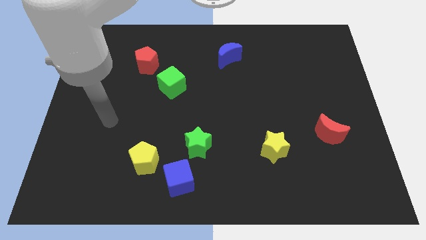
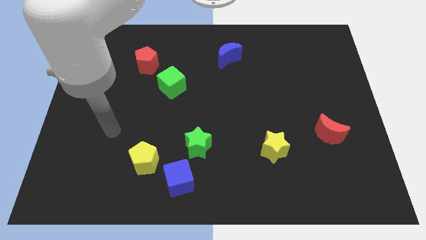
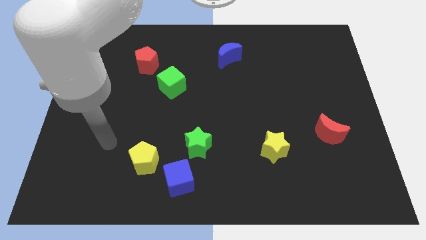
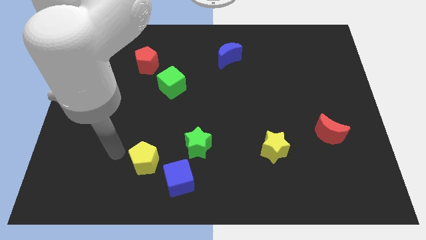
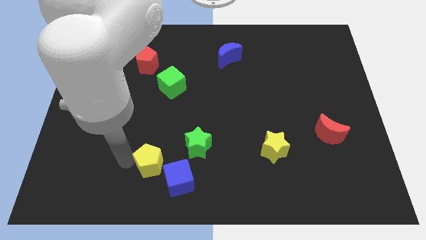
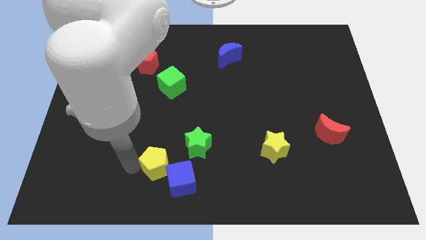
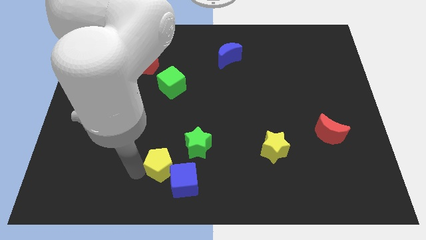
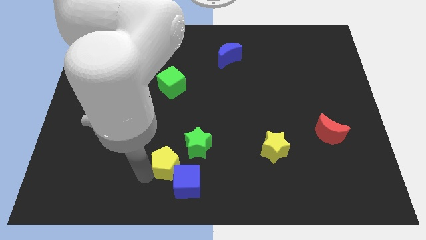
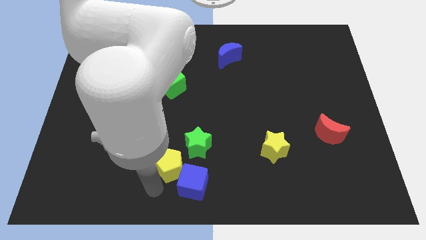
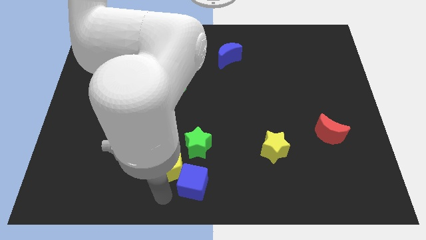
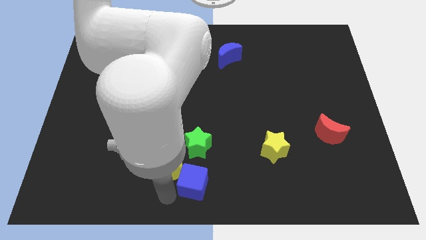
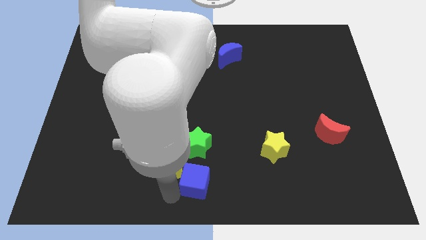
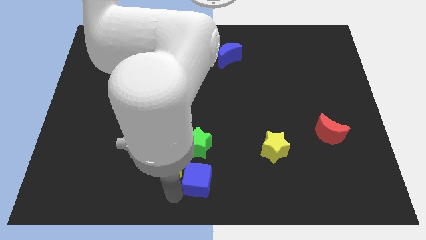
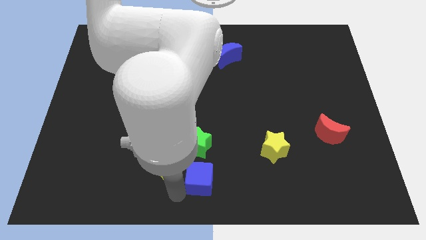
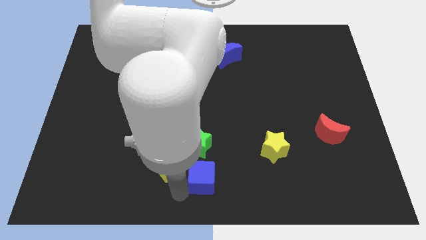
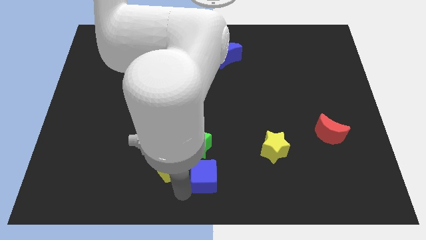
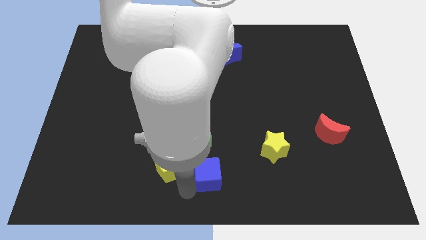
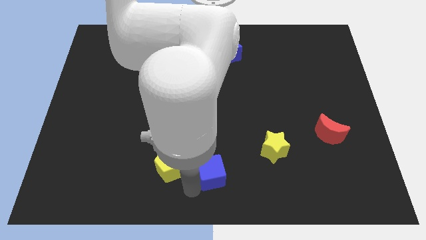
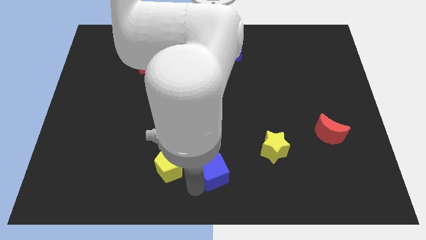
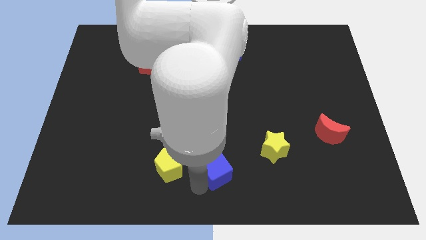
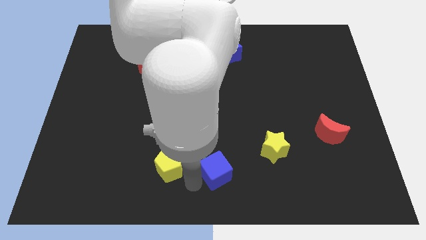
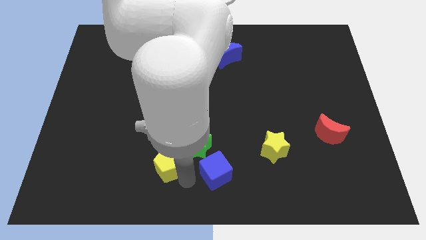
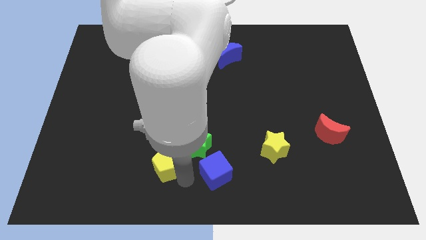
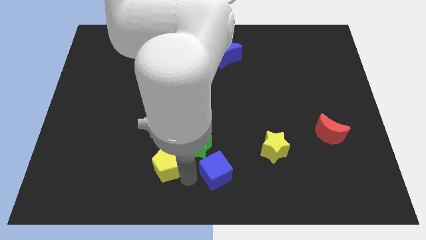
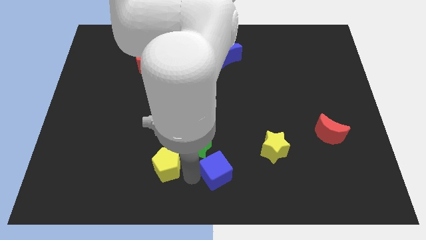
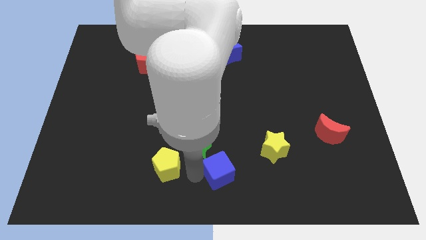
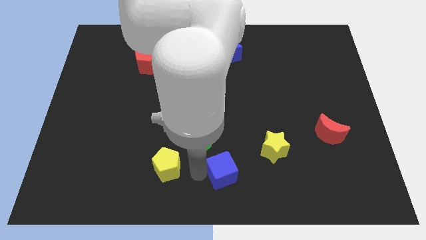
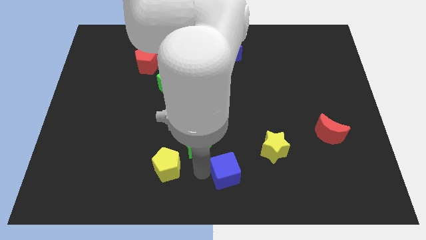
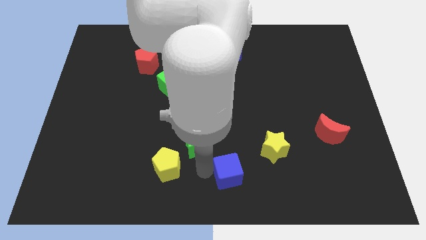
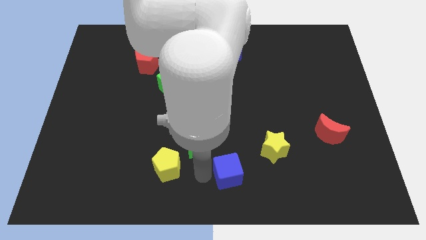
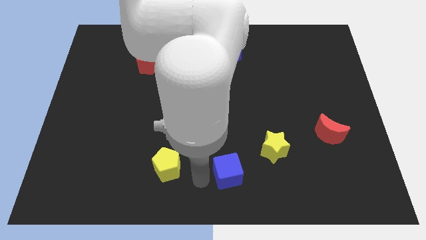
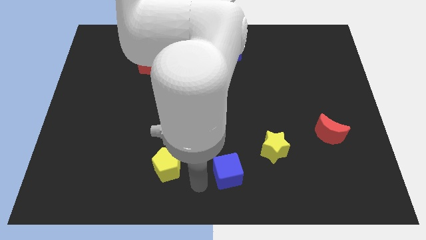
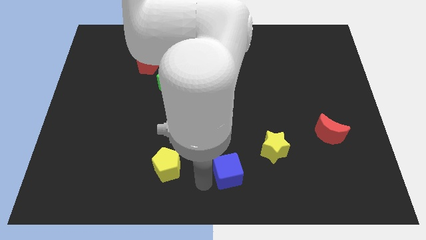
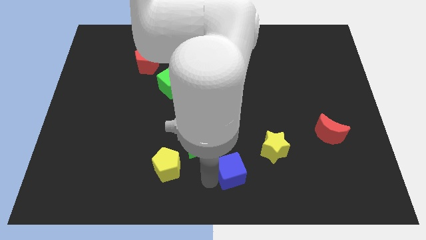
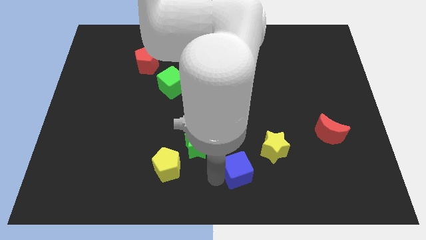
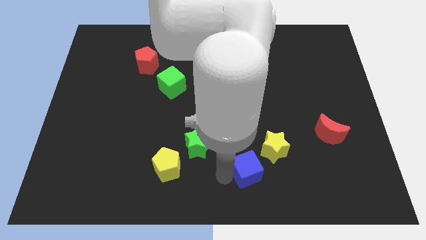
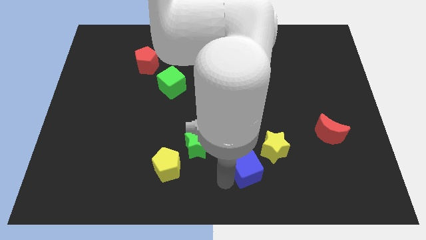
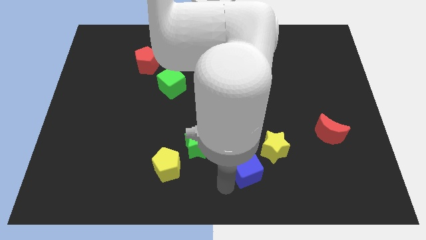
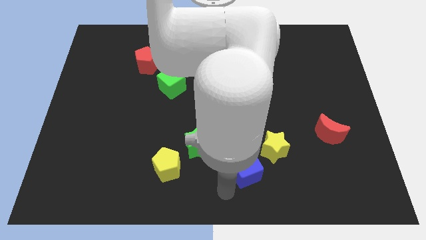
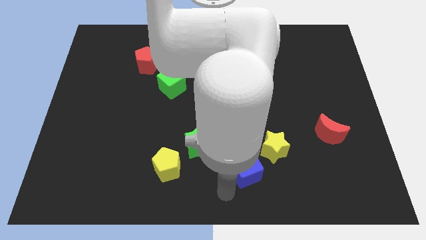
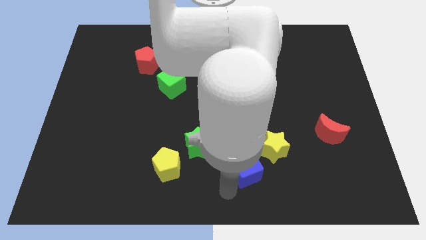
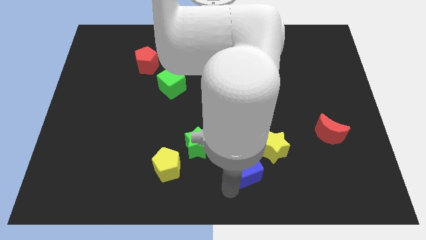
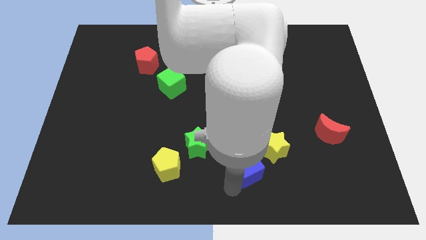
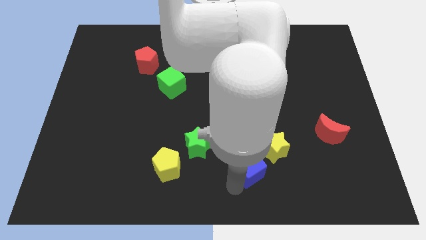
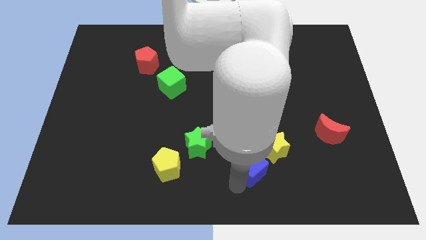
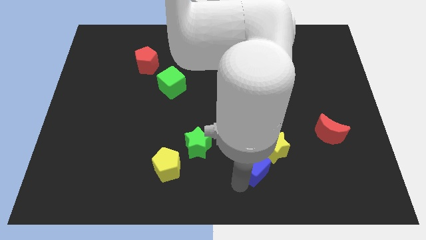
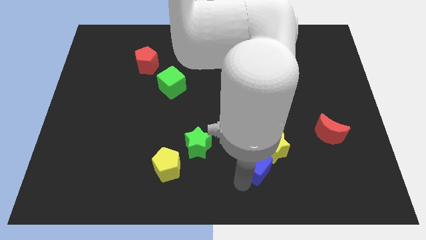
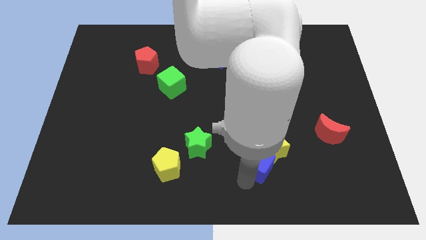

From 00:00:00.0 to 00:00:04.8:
push the blue cube next to the yellow star

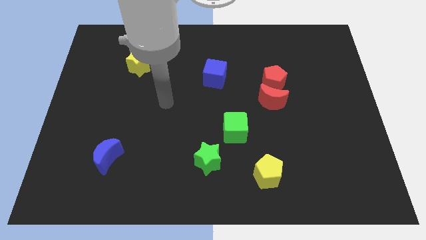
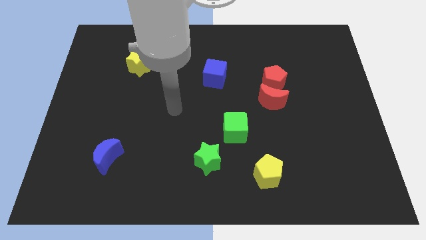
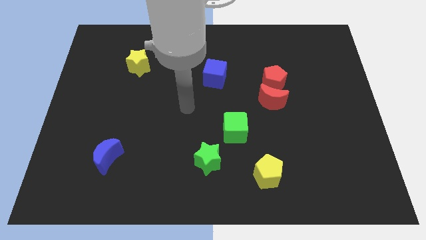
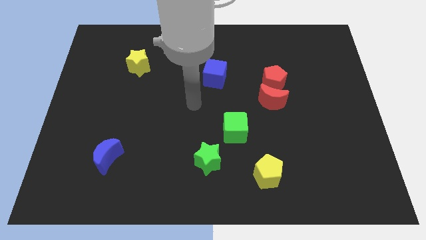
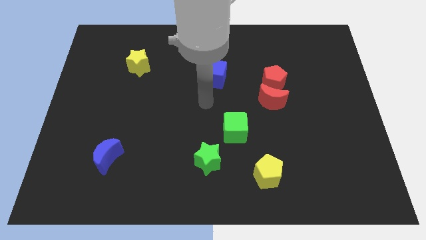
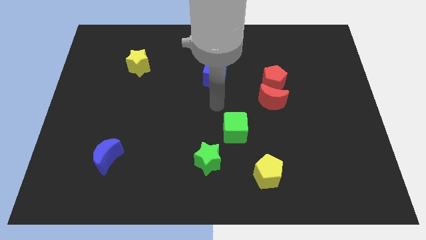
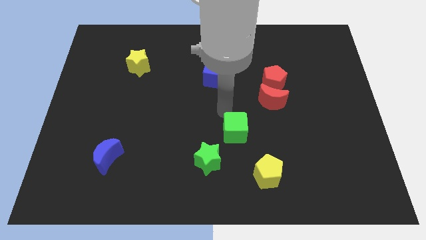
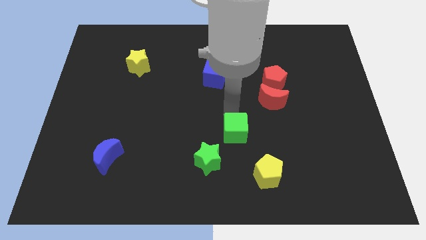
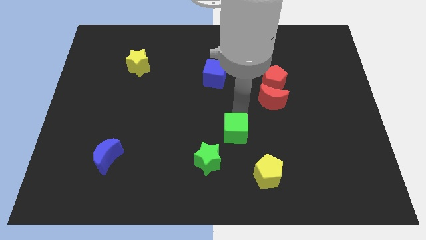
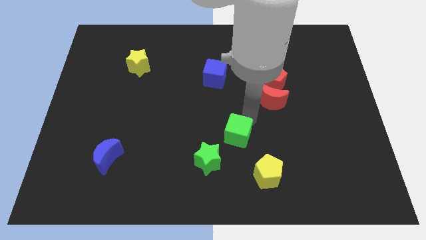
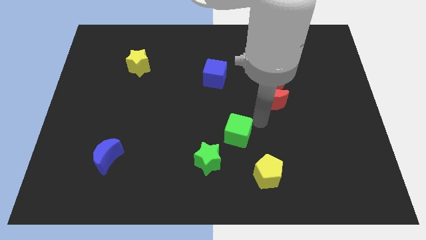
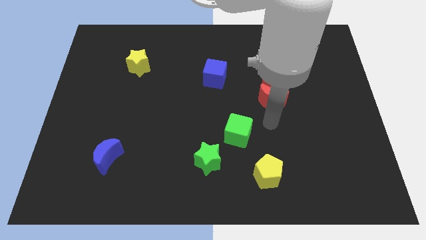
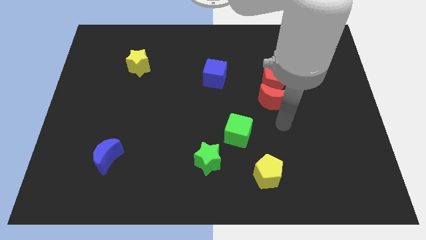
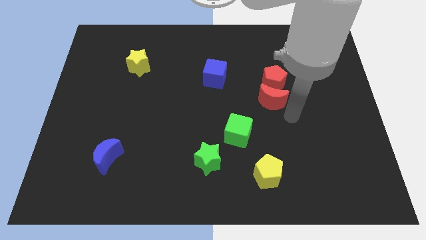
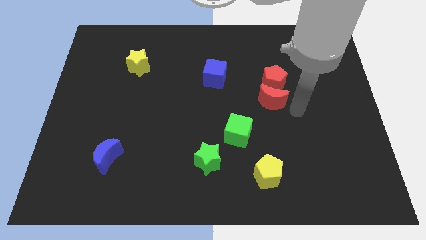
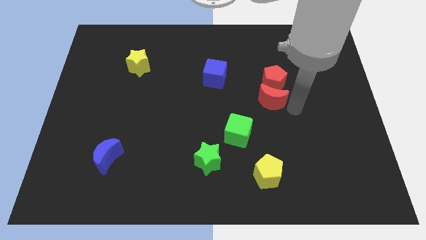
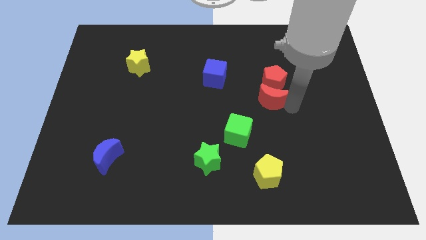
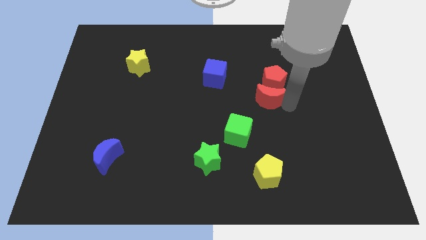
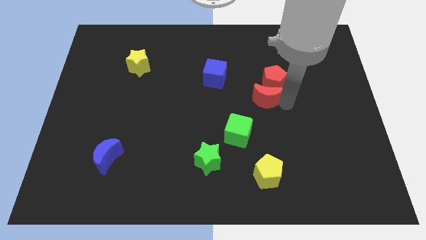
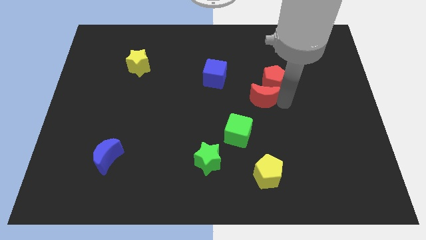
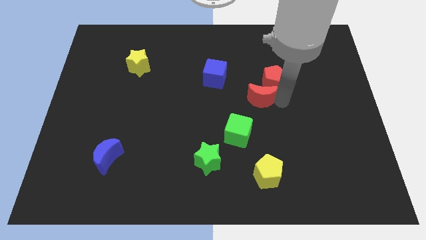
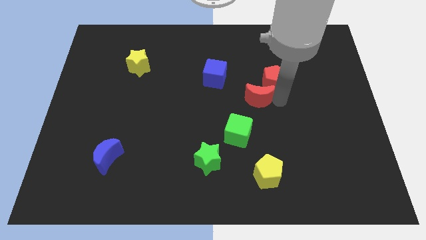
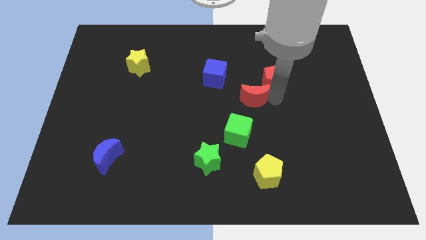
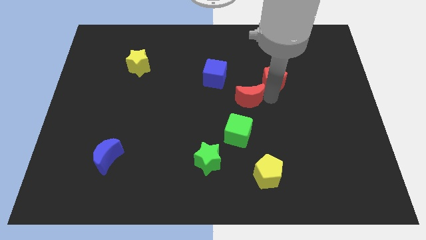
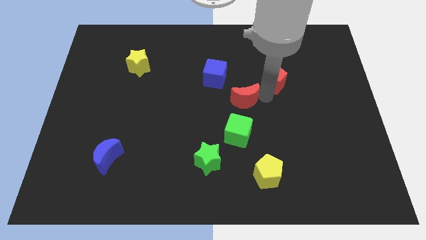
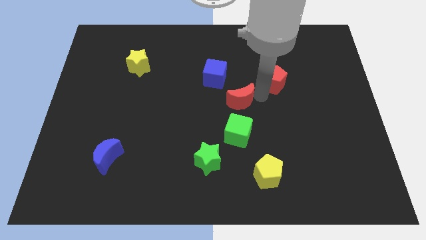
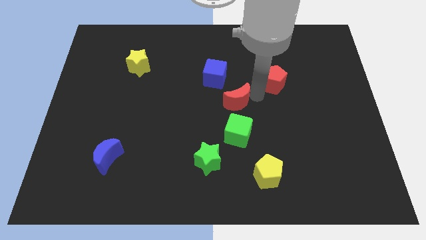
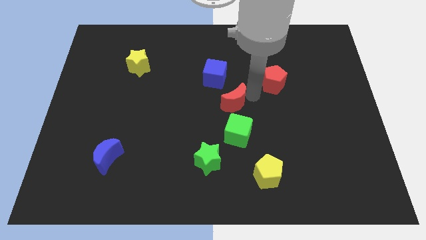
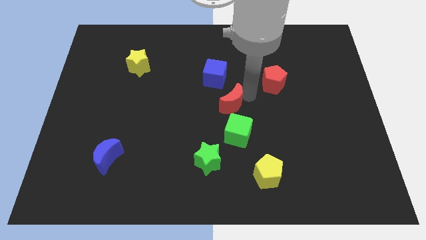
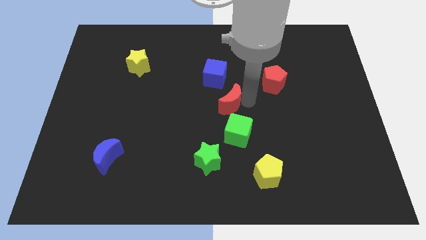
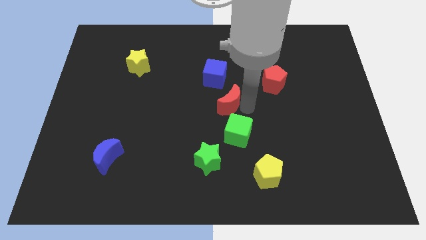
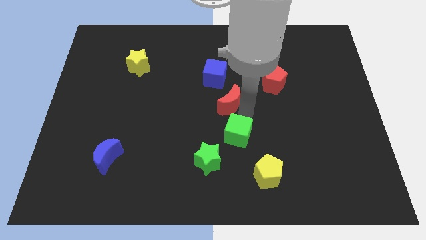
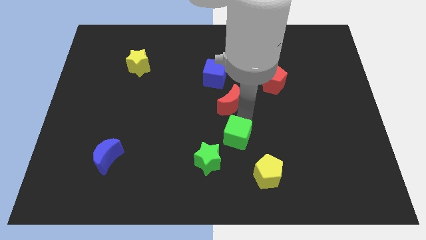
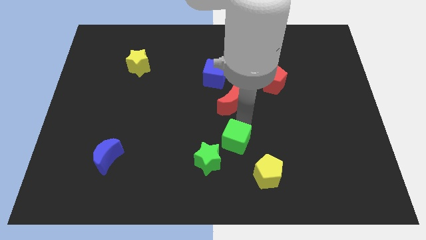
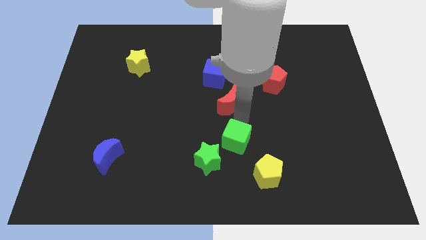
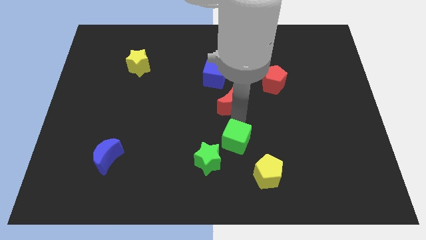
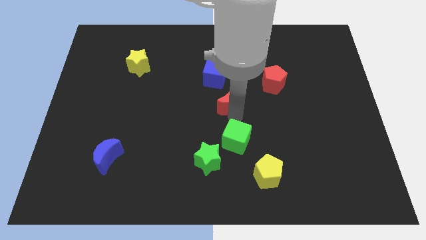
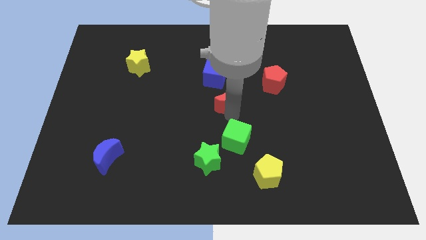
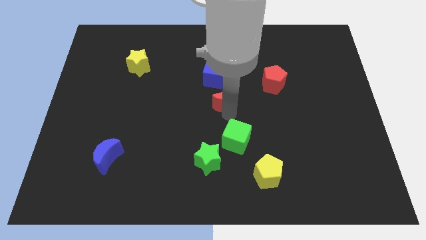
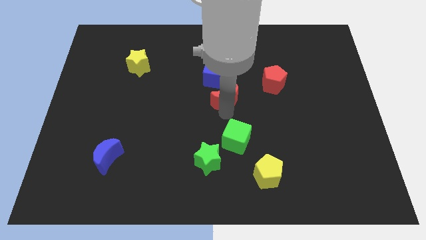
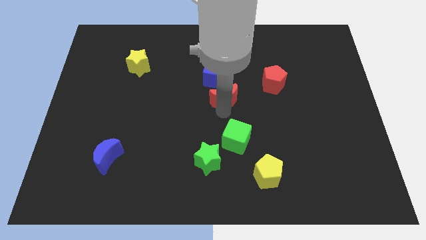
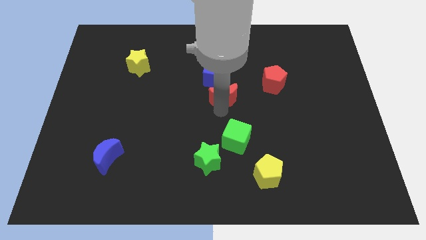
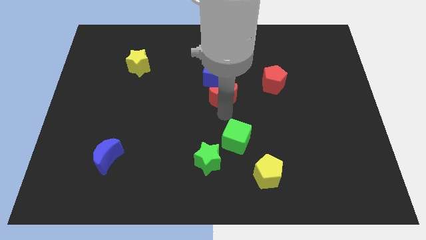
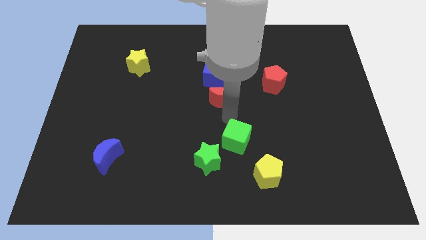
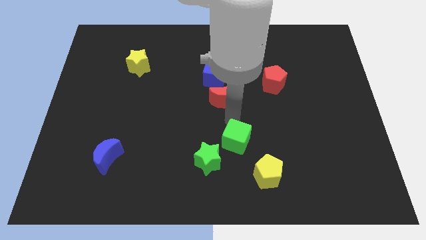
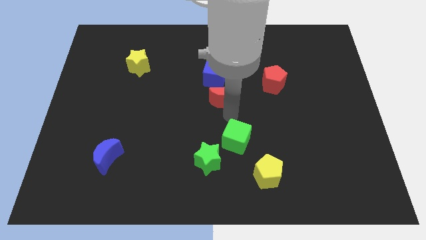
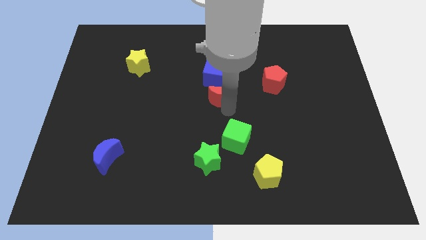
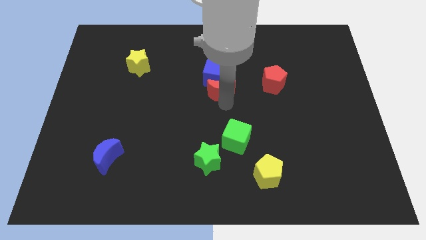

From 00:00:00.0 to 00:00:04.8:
slide the red moon next to the blue cube
